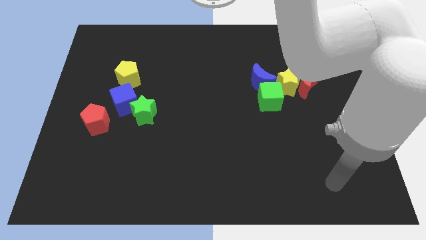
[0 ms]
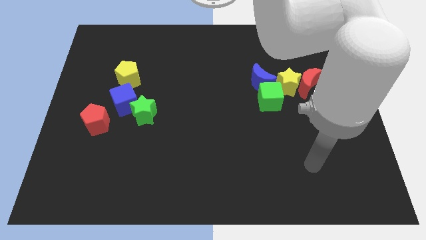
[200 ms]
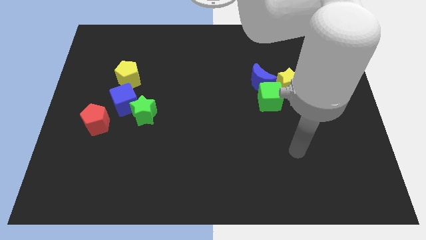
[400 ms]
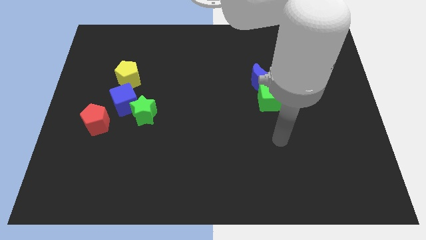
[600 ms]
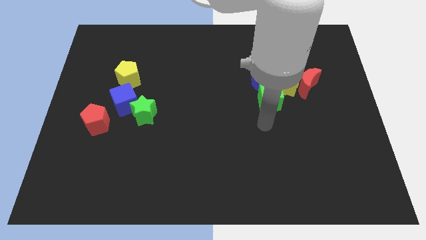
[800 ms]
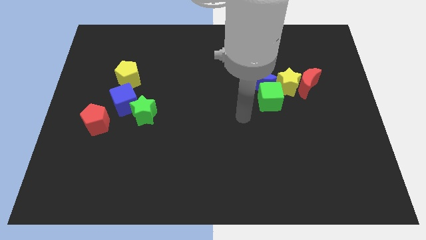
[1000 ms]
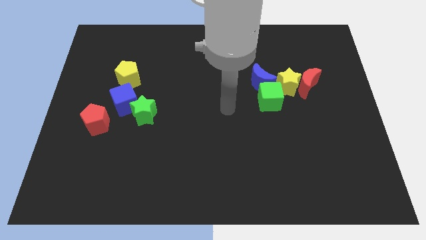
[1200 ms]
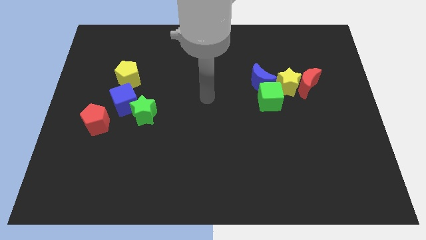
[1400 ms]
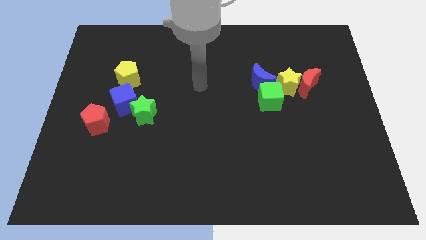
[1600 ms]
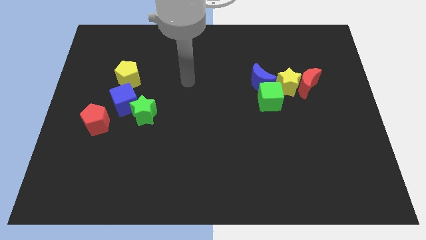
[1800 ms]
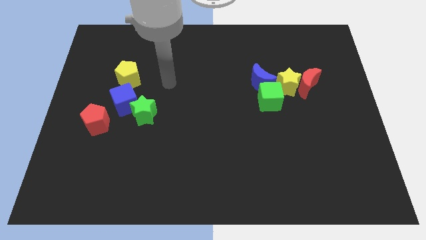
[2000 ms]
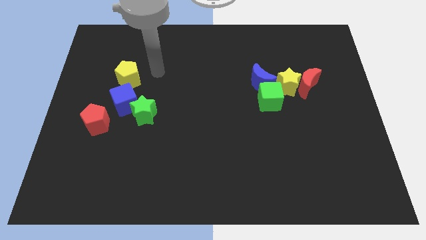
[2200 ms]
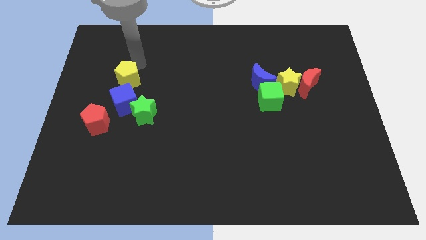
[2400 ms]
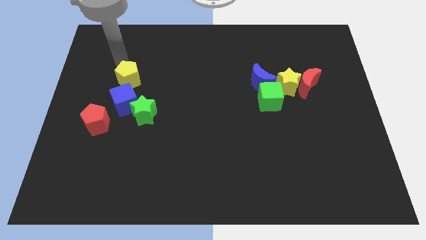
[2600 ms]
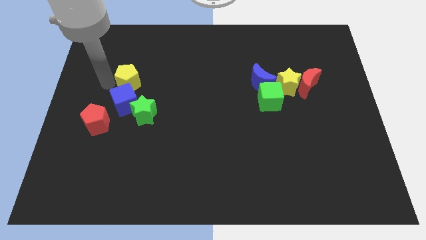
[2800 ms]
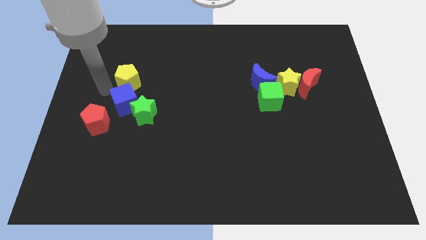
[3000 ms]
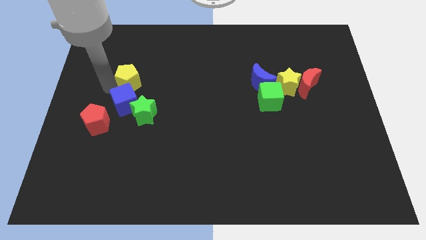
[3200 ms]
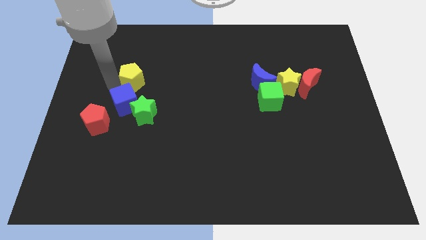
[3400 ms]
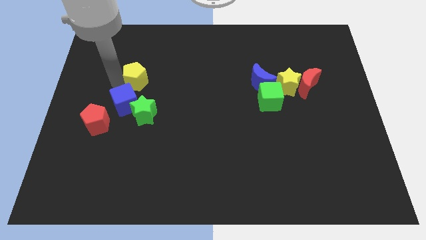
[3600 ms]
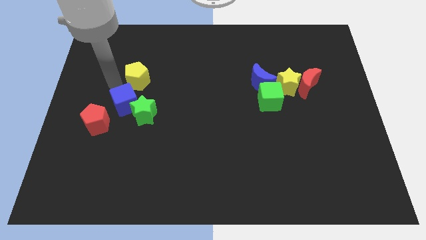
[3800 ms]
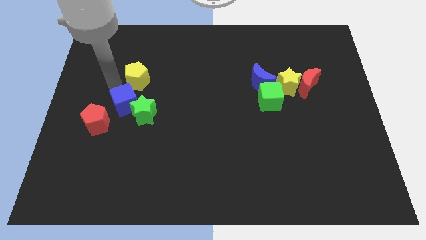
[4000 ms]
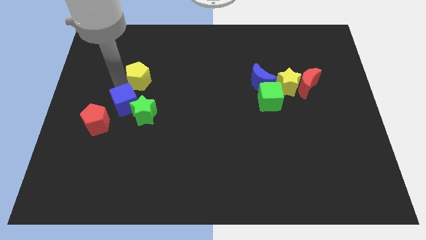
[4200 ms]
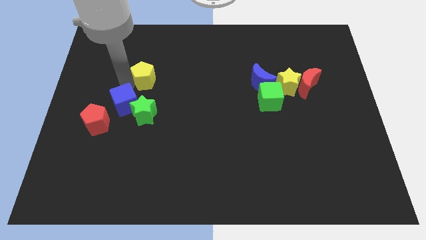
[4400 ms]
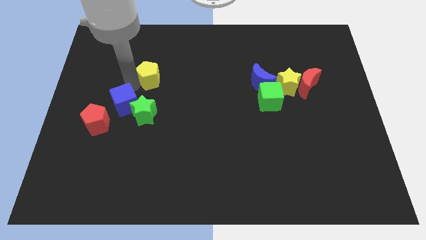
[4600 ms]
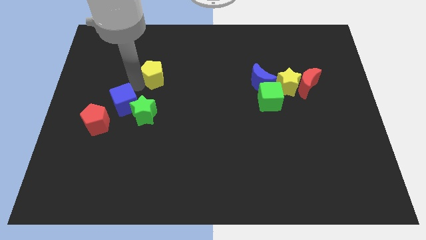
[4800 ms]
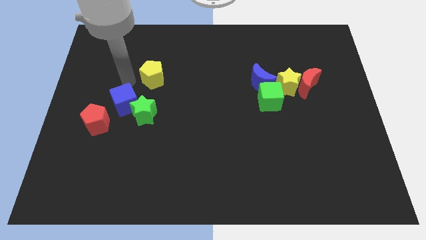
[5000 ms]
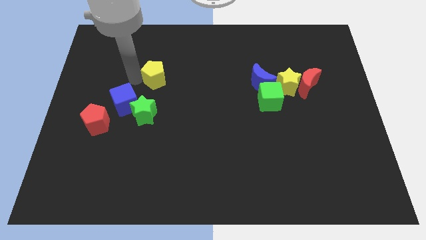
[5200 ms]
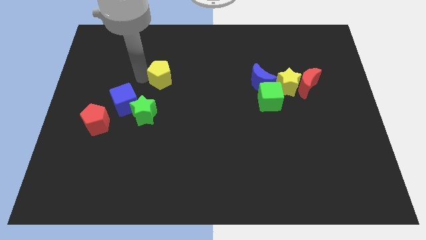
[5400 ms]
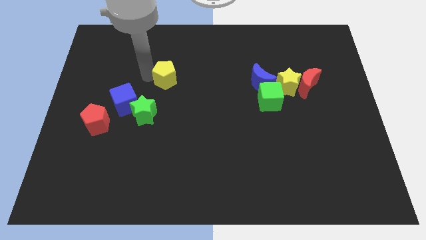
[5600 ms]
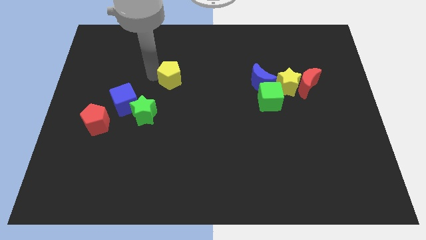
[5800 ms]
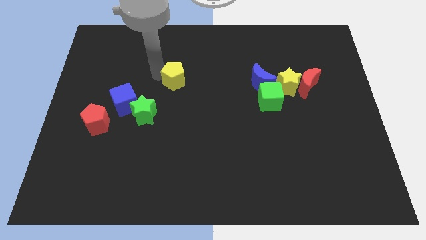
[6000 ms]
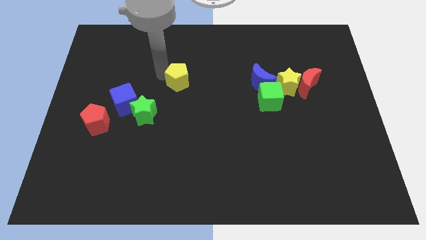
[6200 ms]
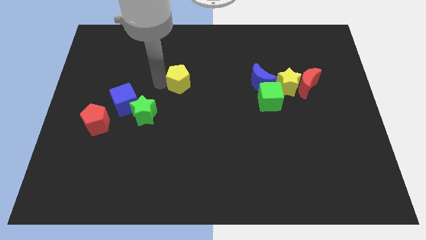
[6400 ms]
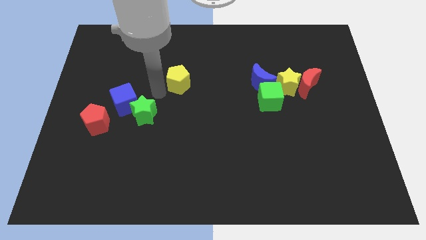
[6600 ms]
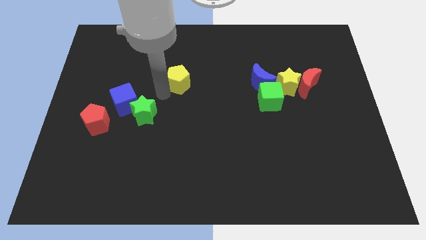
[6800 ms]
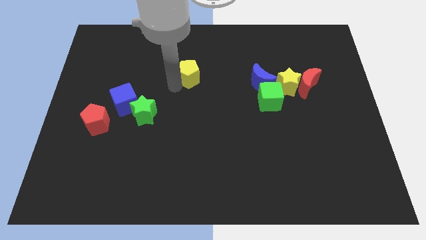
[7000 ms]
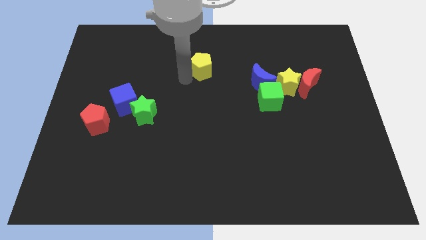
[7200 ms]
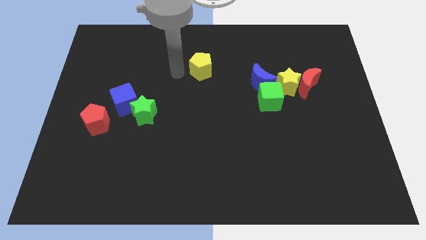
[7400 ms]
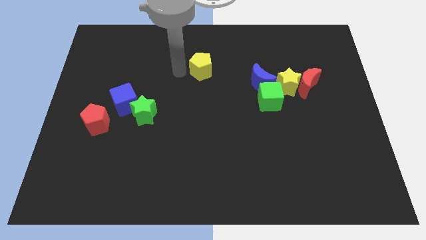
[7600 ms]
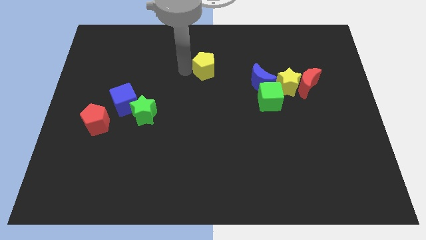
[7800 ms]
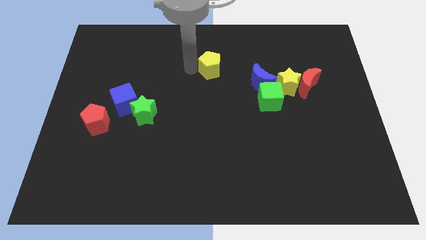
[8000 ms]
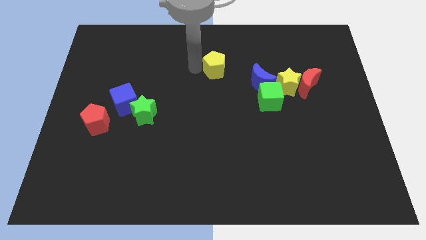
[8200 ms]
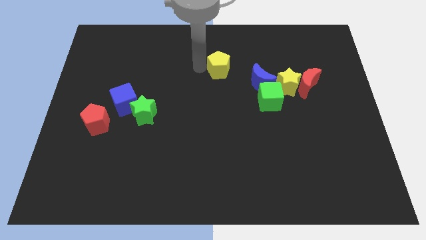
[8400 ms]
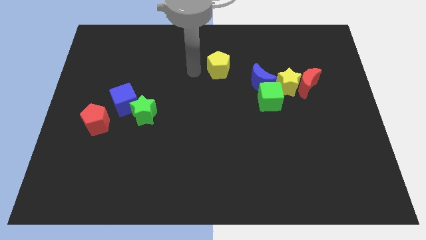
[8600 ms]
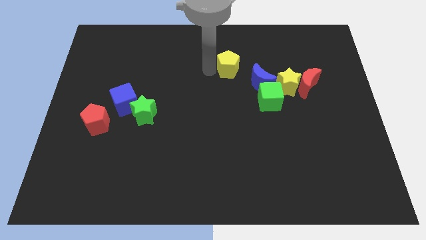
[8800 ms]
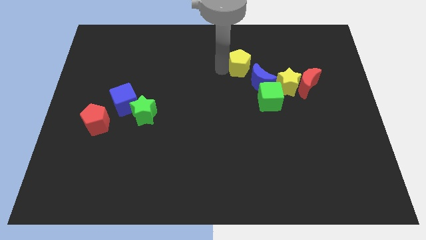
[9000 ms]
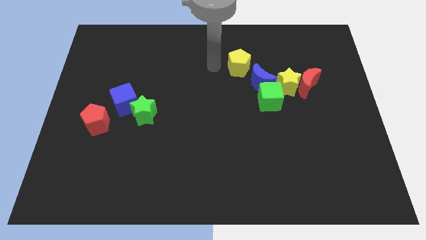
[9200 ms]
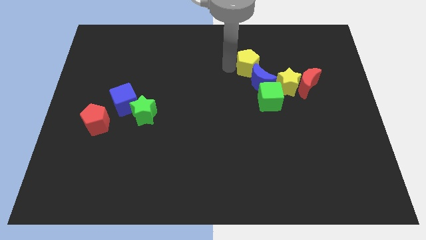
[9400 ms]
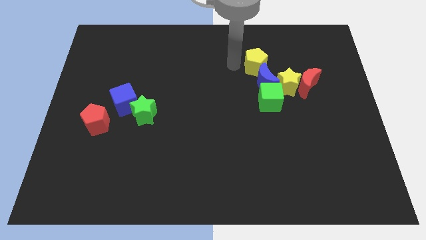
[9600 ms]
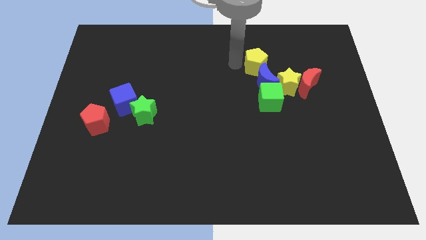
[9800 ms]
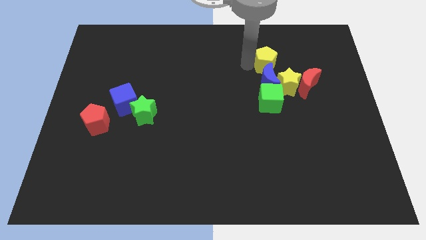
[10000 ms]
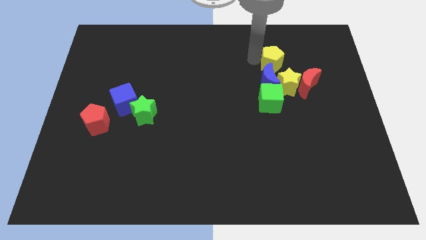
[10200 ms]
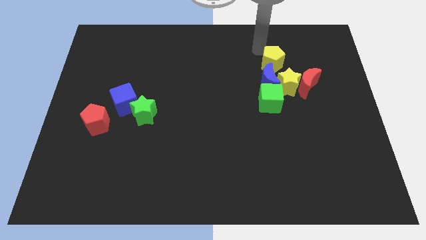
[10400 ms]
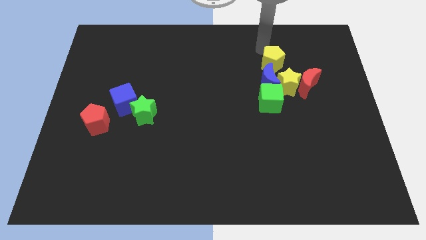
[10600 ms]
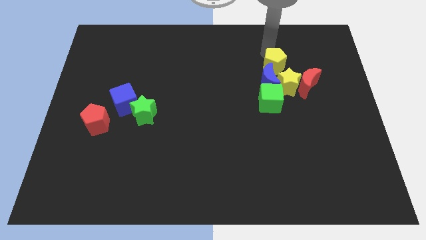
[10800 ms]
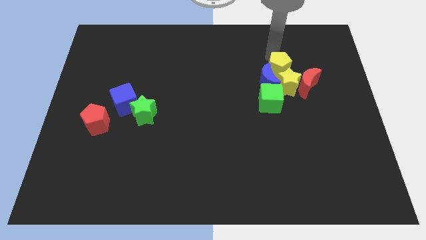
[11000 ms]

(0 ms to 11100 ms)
move the yellow pentagon close to the yellow star

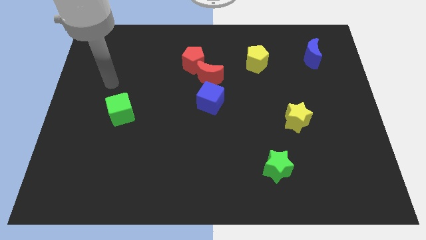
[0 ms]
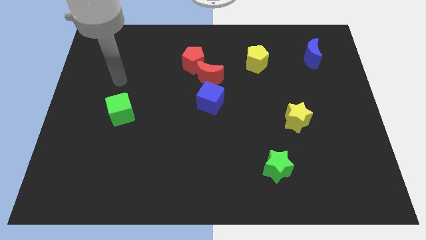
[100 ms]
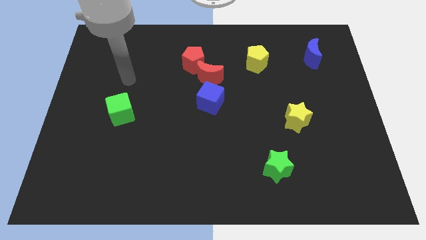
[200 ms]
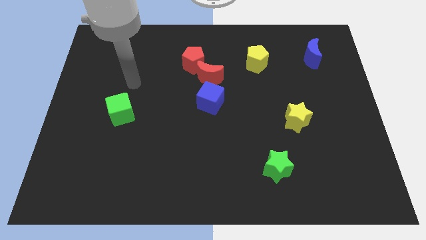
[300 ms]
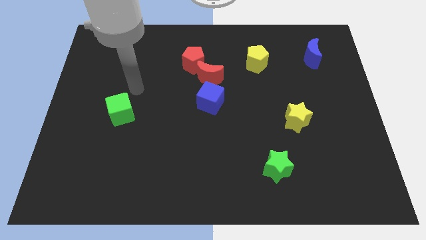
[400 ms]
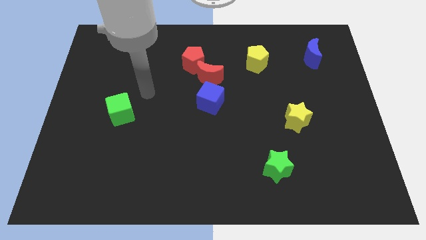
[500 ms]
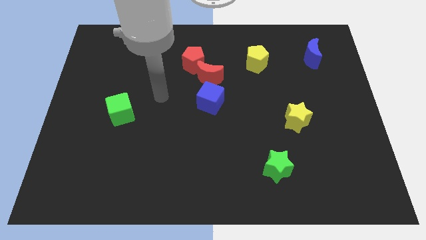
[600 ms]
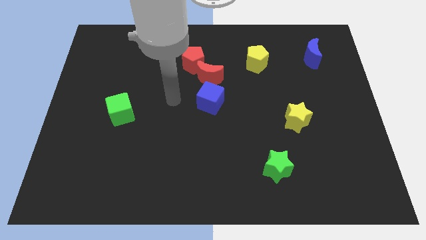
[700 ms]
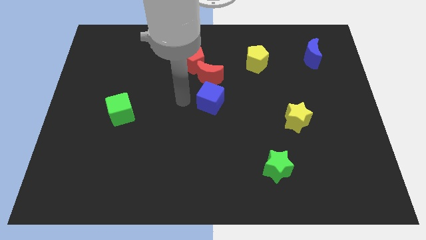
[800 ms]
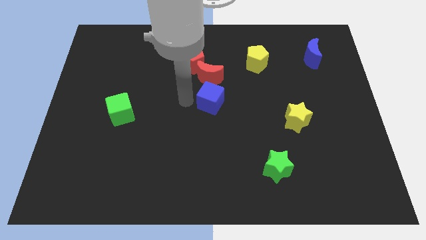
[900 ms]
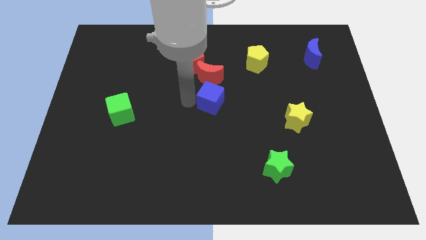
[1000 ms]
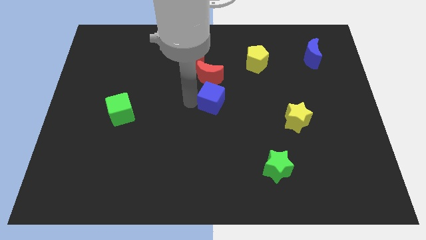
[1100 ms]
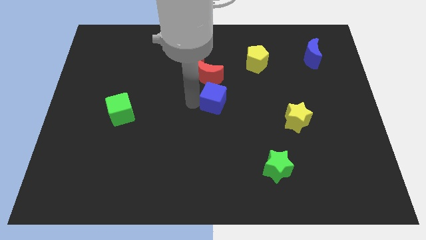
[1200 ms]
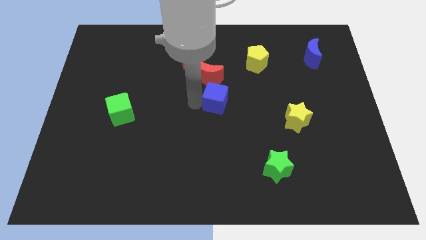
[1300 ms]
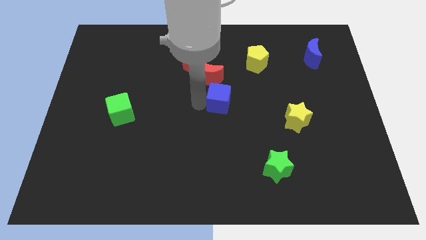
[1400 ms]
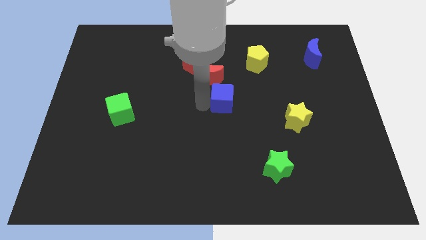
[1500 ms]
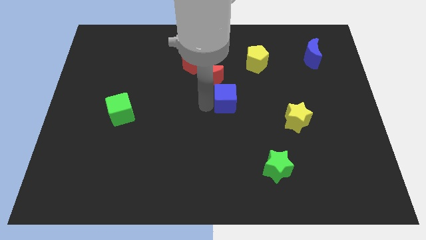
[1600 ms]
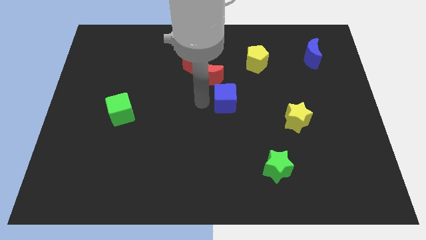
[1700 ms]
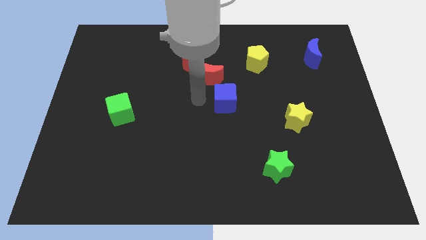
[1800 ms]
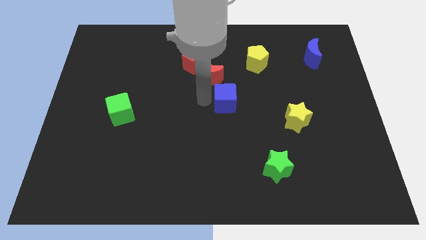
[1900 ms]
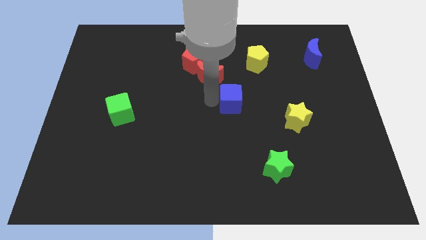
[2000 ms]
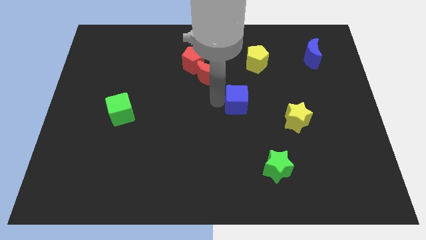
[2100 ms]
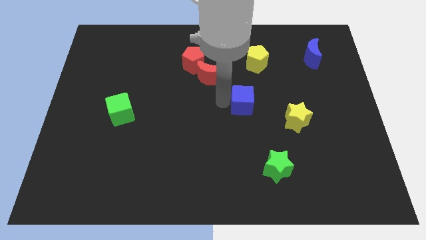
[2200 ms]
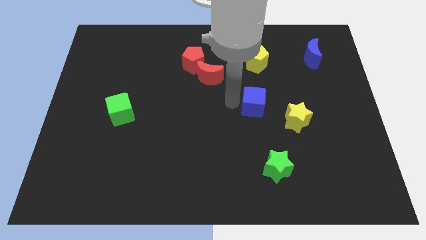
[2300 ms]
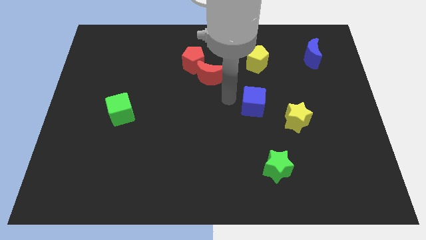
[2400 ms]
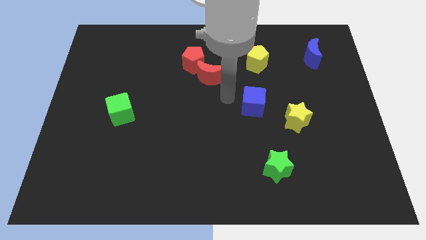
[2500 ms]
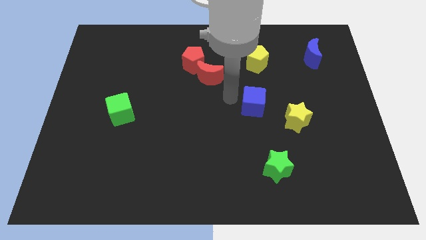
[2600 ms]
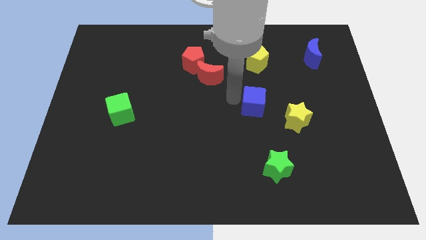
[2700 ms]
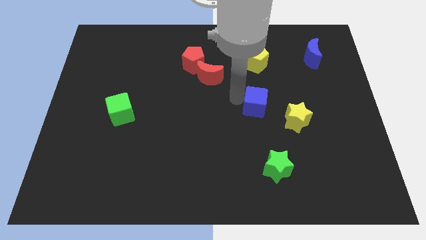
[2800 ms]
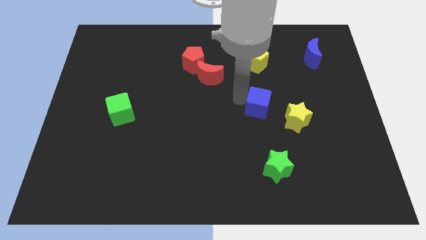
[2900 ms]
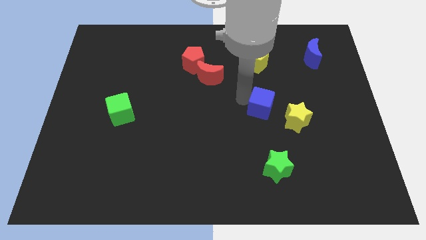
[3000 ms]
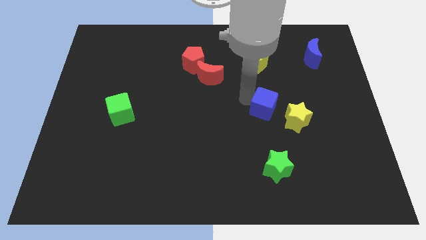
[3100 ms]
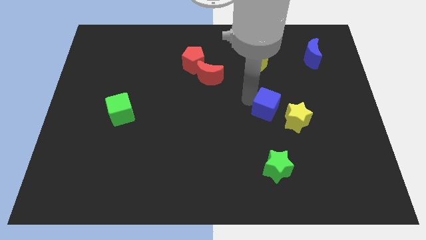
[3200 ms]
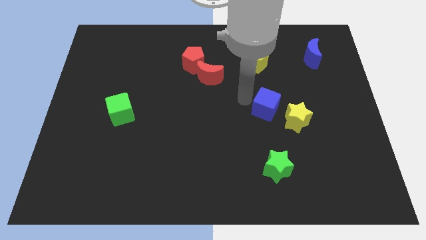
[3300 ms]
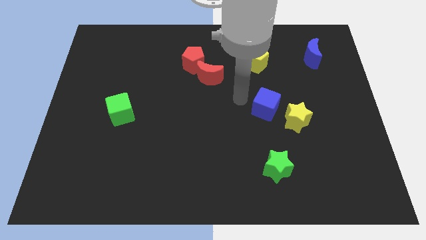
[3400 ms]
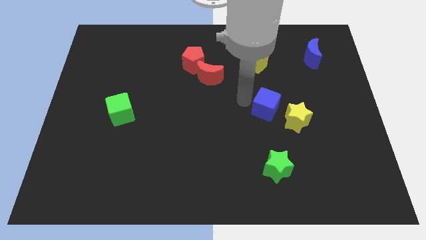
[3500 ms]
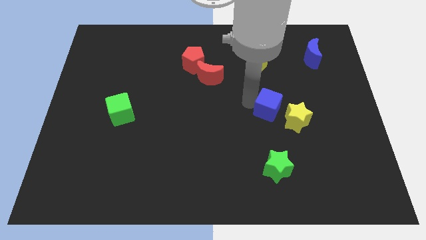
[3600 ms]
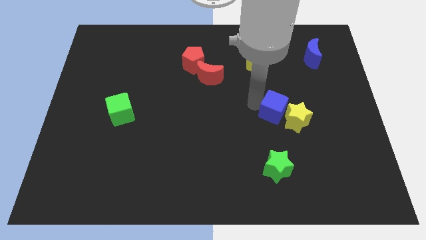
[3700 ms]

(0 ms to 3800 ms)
slide the blue cube close to the yellow star
